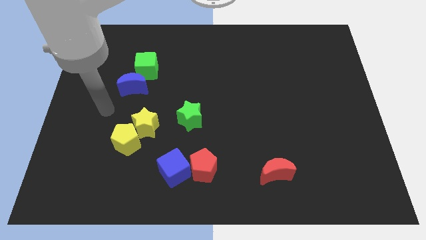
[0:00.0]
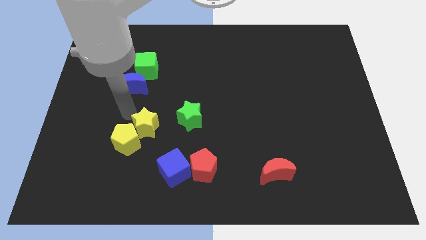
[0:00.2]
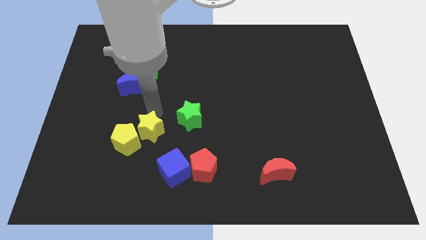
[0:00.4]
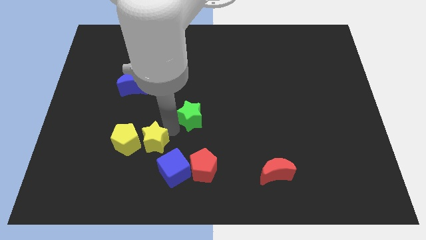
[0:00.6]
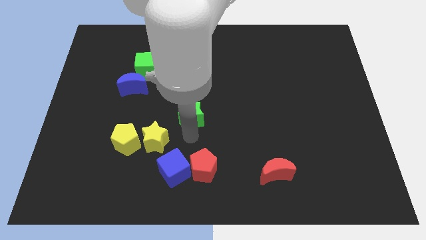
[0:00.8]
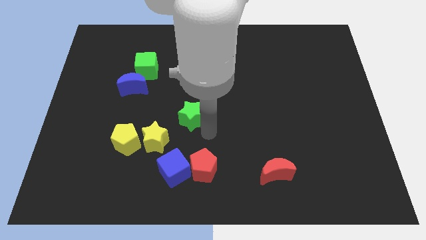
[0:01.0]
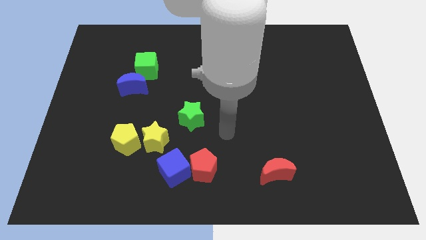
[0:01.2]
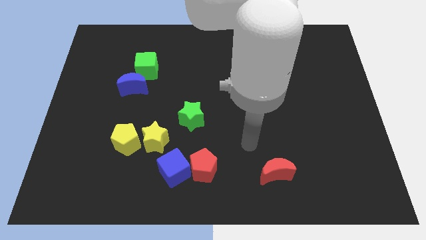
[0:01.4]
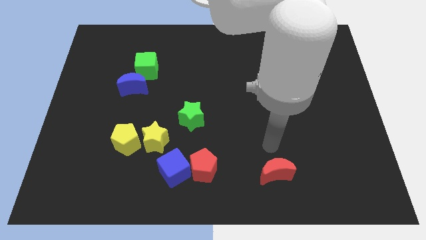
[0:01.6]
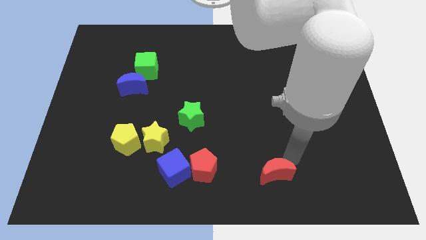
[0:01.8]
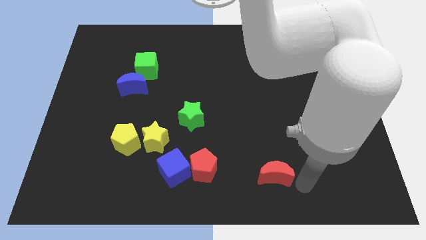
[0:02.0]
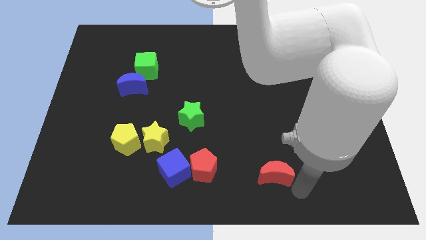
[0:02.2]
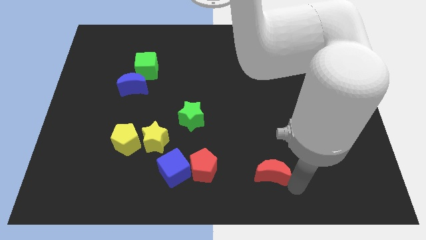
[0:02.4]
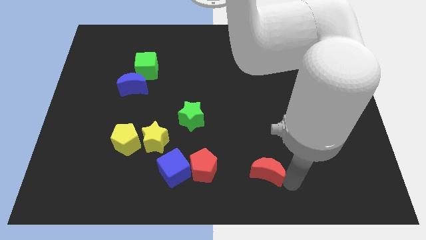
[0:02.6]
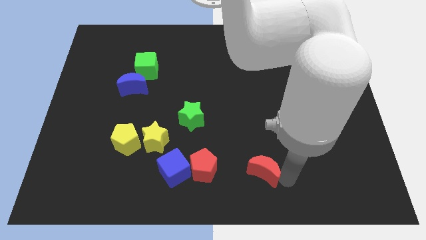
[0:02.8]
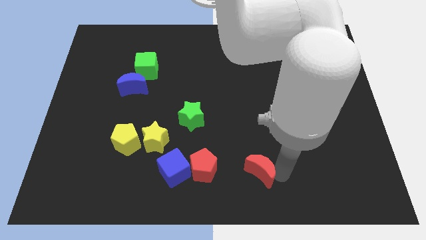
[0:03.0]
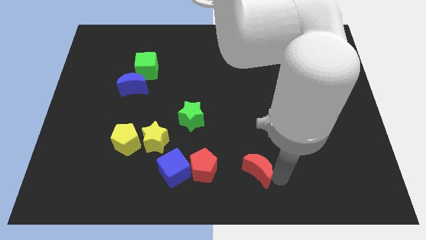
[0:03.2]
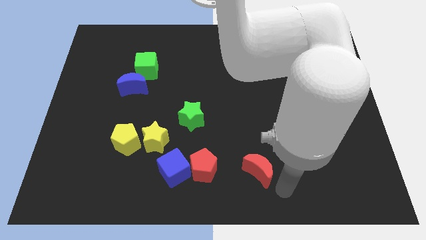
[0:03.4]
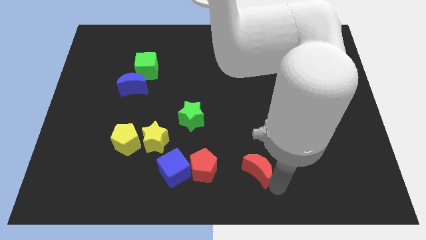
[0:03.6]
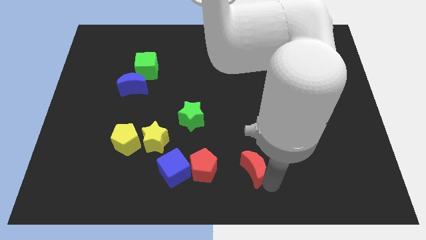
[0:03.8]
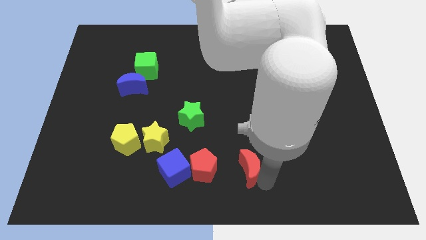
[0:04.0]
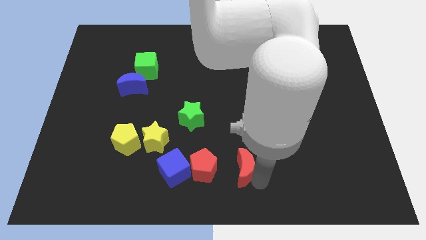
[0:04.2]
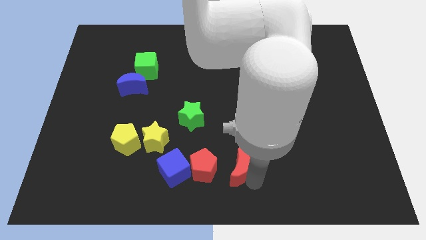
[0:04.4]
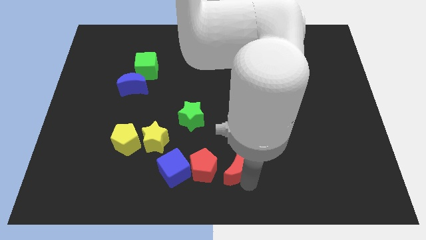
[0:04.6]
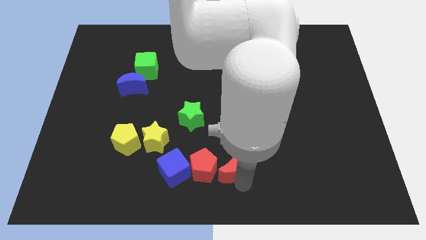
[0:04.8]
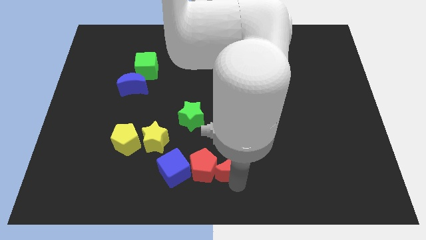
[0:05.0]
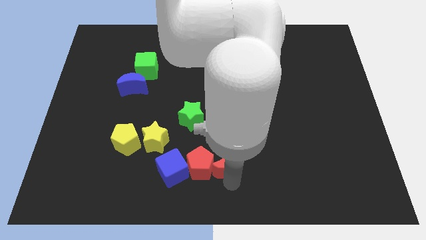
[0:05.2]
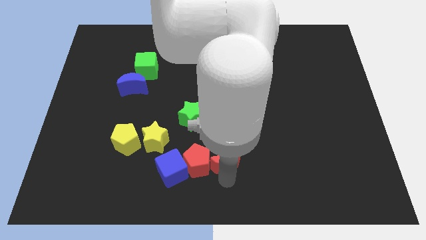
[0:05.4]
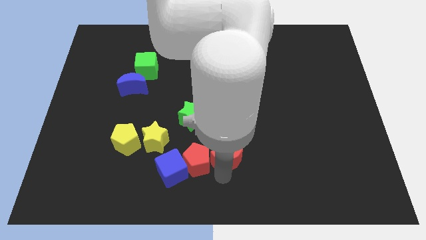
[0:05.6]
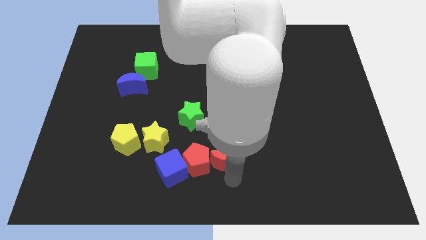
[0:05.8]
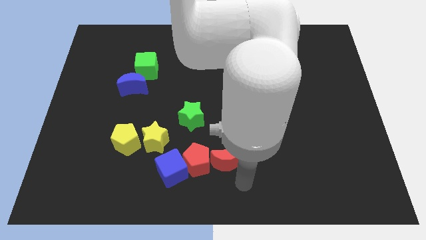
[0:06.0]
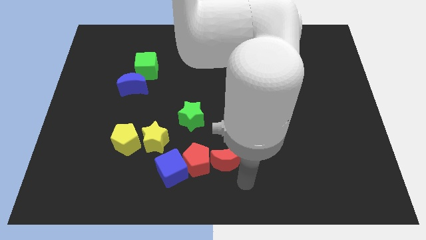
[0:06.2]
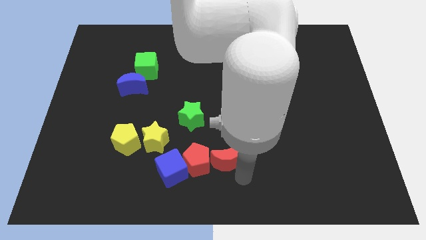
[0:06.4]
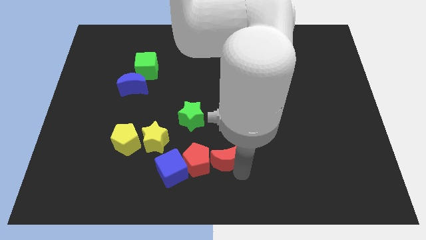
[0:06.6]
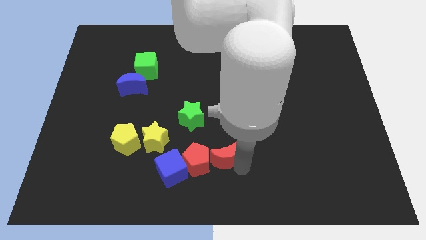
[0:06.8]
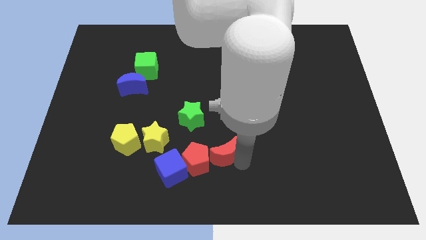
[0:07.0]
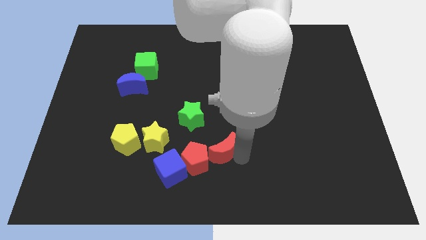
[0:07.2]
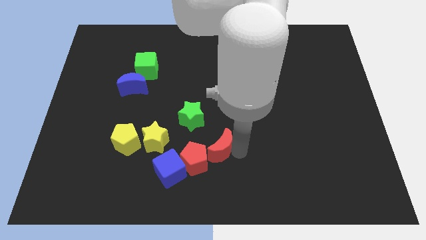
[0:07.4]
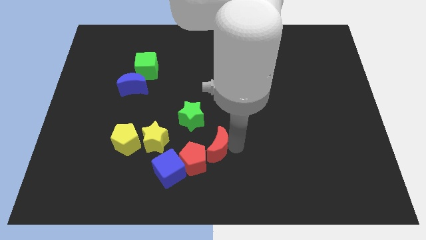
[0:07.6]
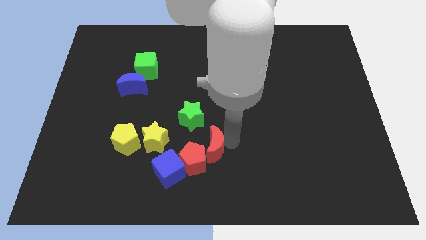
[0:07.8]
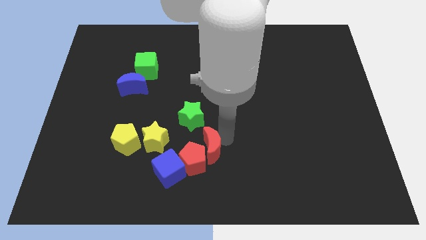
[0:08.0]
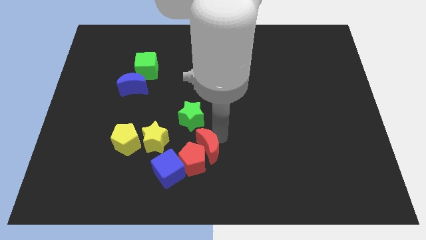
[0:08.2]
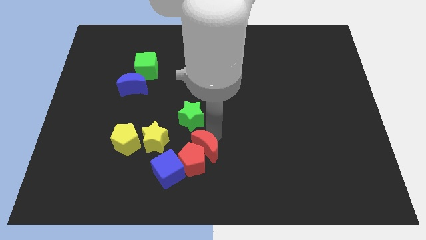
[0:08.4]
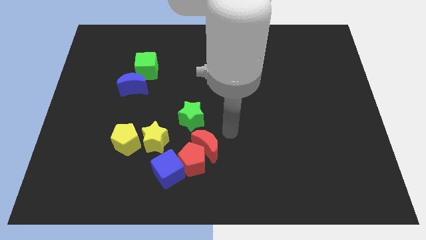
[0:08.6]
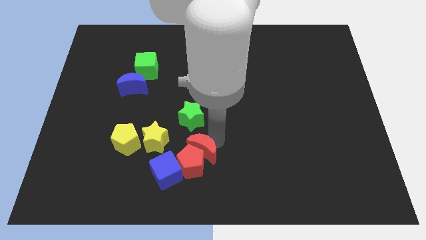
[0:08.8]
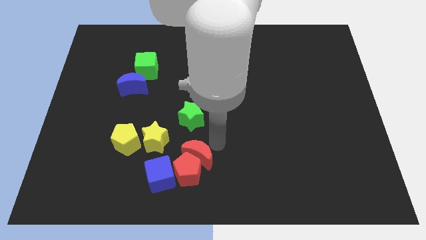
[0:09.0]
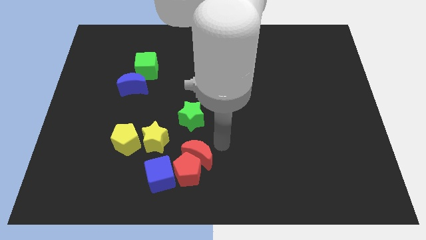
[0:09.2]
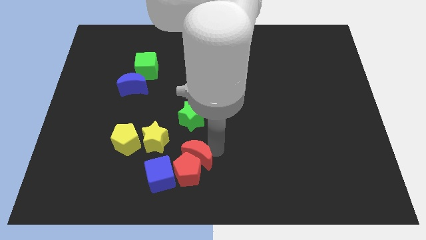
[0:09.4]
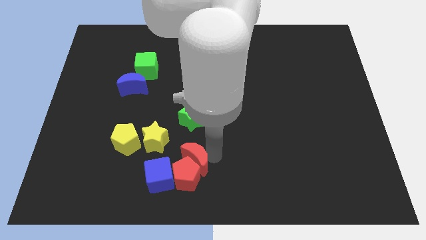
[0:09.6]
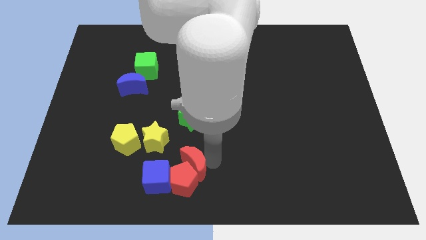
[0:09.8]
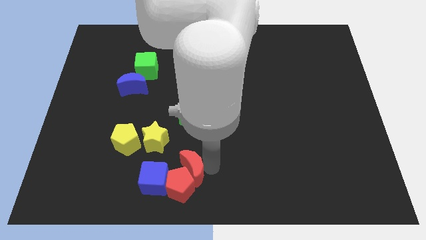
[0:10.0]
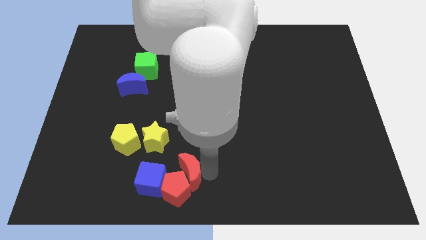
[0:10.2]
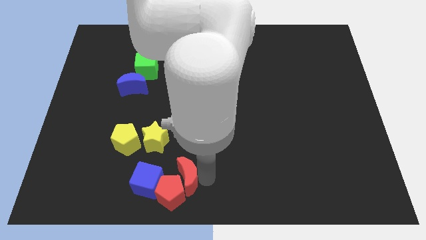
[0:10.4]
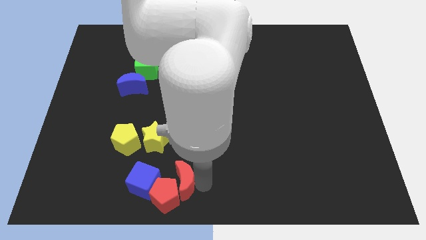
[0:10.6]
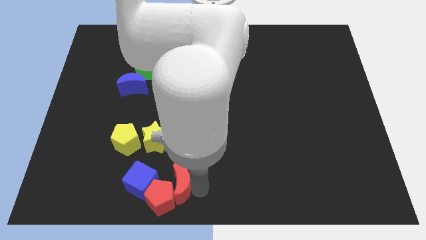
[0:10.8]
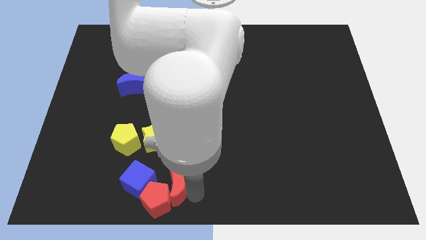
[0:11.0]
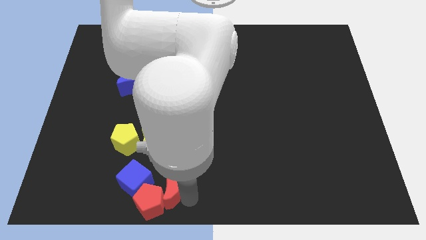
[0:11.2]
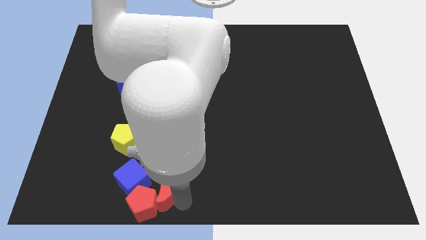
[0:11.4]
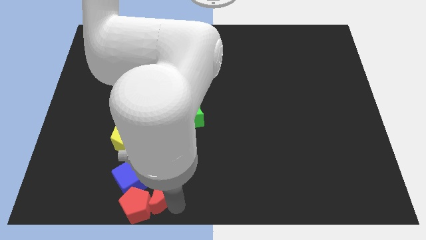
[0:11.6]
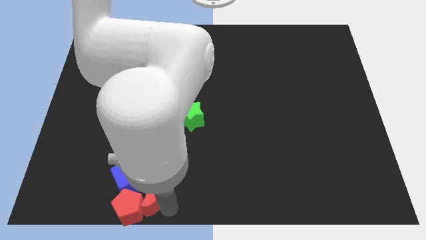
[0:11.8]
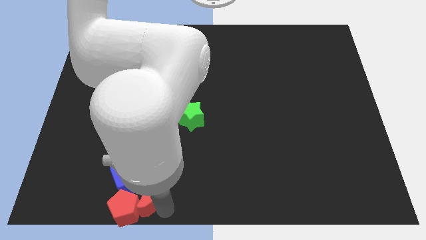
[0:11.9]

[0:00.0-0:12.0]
slide the red moon towards the blue cube

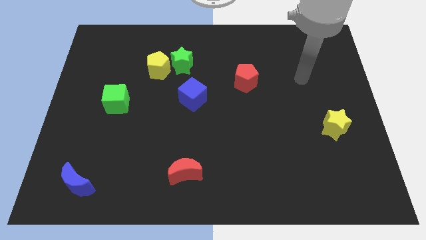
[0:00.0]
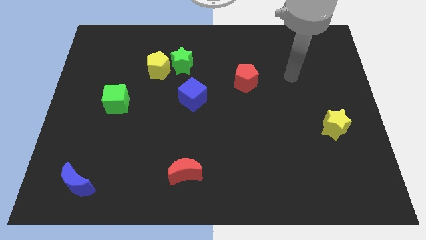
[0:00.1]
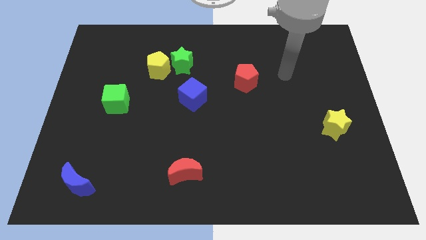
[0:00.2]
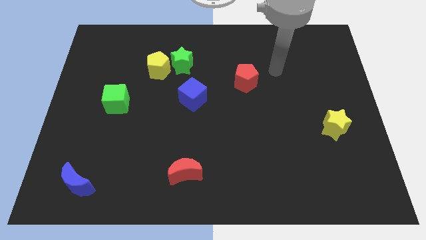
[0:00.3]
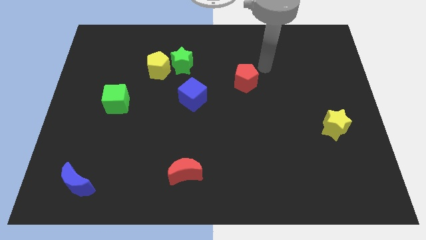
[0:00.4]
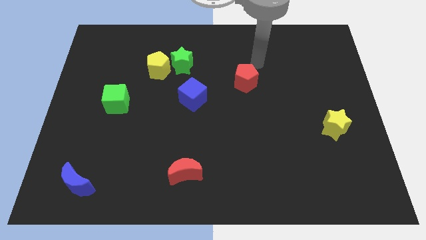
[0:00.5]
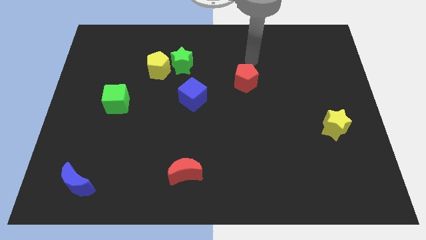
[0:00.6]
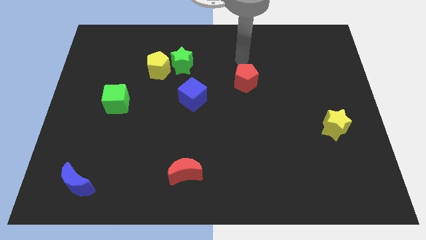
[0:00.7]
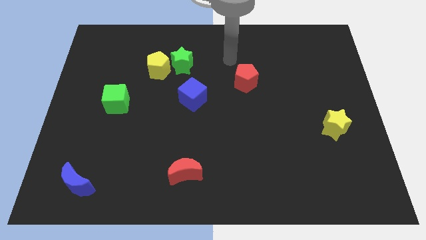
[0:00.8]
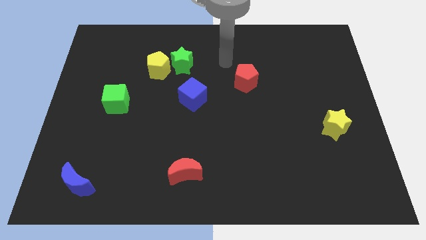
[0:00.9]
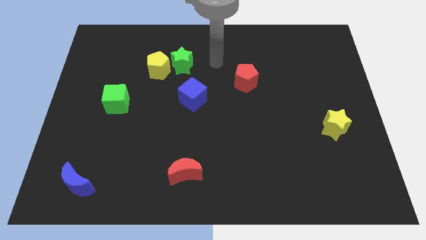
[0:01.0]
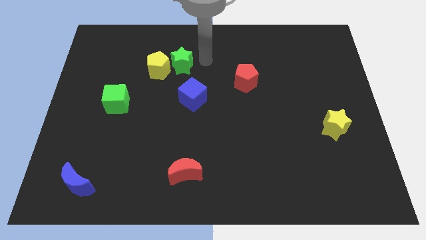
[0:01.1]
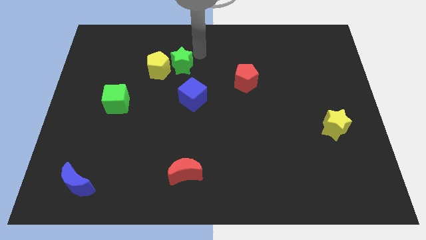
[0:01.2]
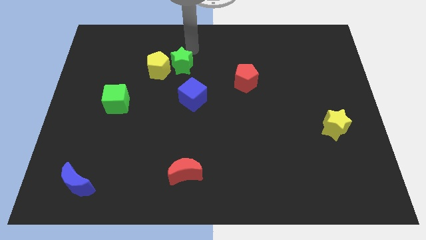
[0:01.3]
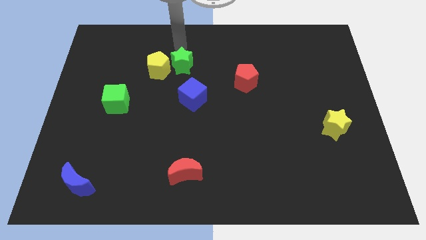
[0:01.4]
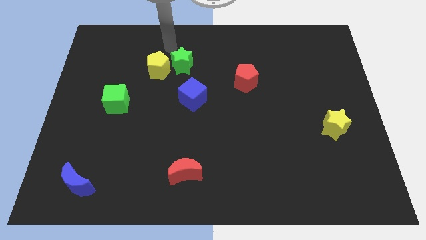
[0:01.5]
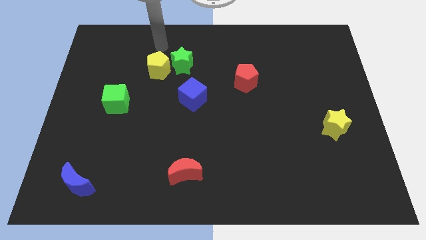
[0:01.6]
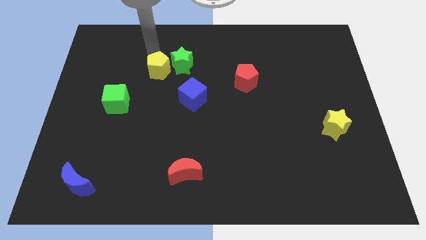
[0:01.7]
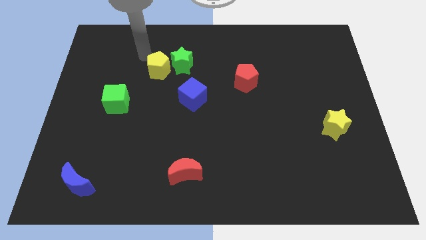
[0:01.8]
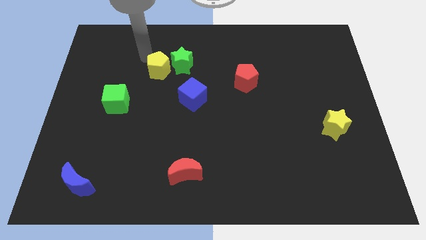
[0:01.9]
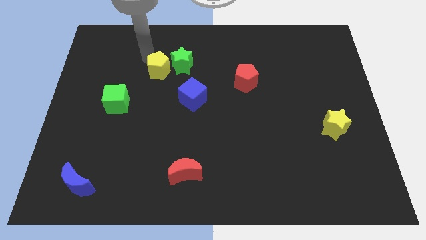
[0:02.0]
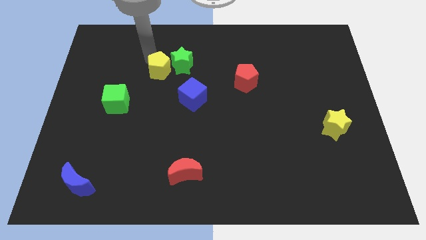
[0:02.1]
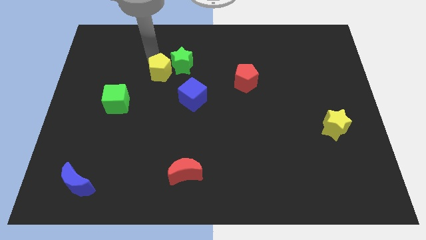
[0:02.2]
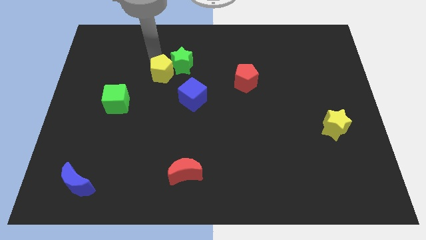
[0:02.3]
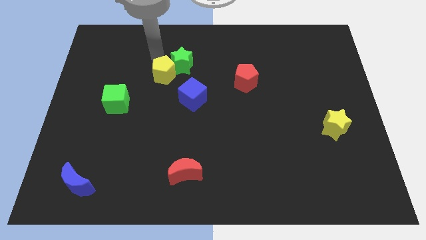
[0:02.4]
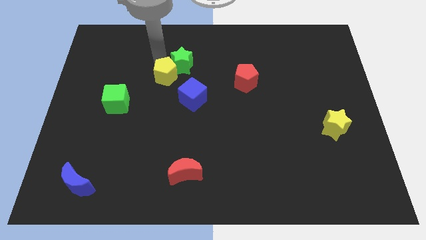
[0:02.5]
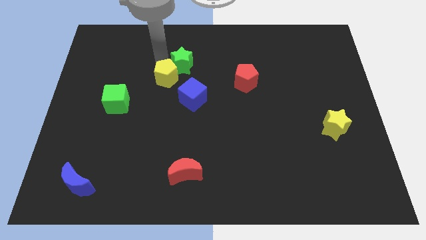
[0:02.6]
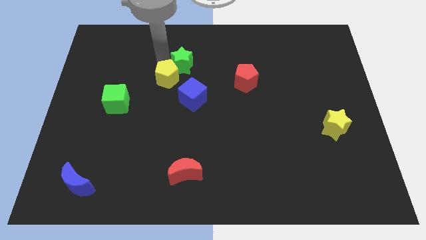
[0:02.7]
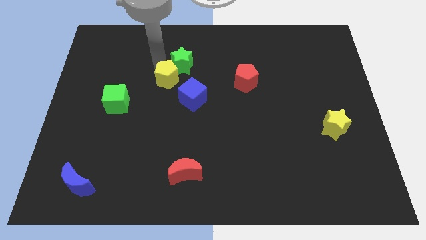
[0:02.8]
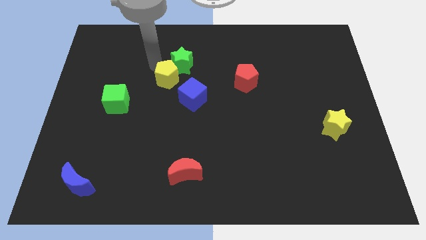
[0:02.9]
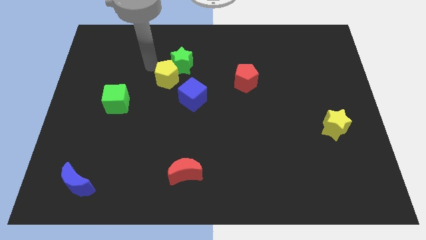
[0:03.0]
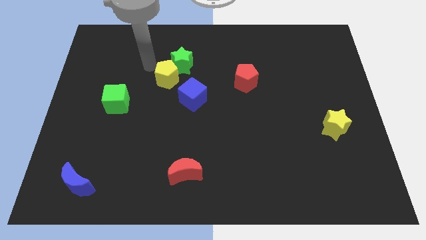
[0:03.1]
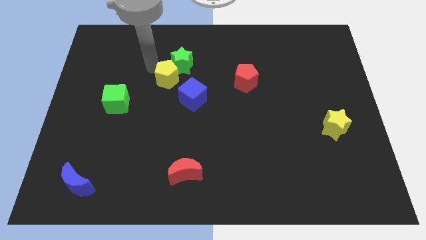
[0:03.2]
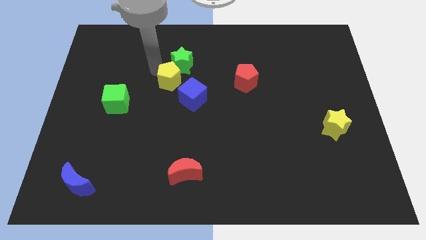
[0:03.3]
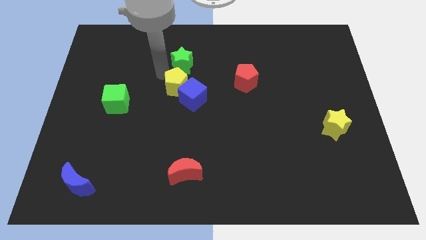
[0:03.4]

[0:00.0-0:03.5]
push the yellow pentagon to the blue cube
